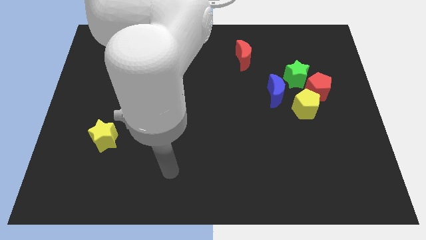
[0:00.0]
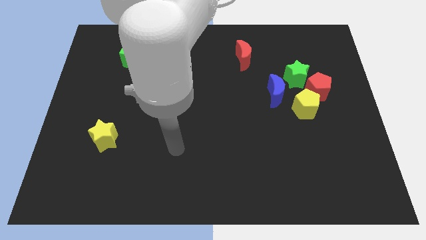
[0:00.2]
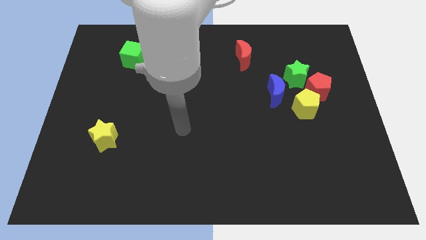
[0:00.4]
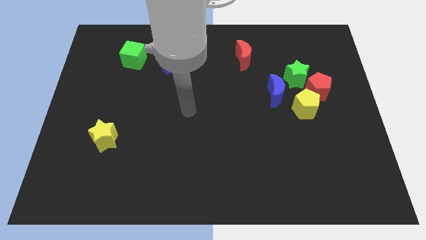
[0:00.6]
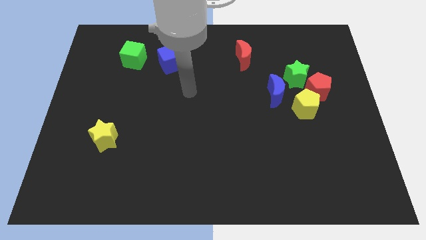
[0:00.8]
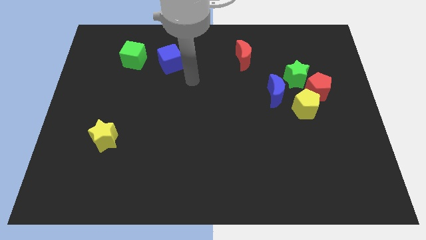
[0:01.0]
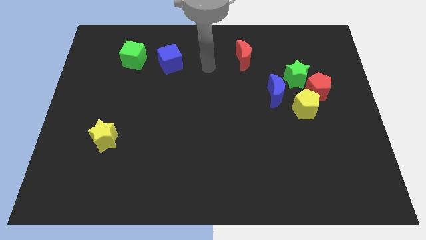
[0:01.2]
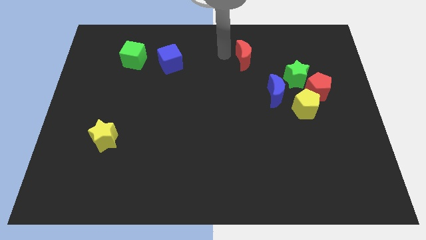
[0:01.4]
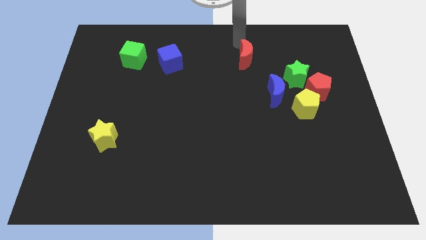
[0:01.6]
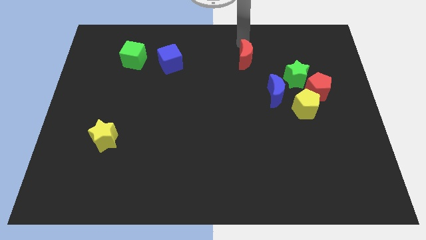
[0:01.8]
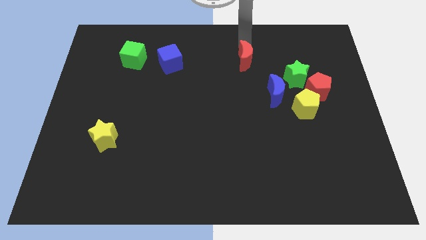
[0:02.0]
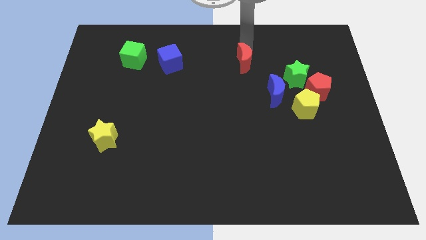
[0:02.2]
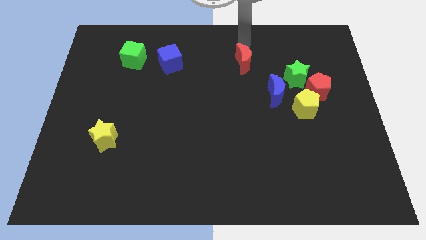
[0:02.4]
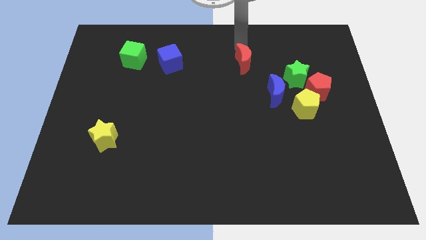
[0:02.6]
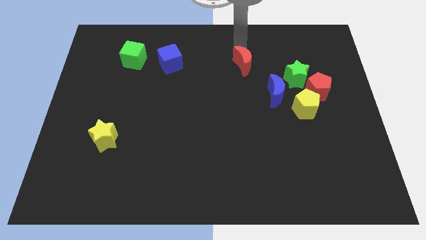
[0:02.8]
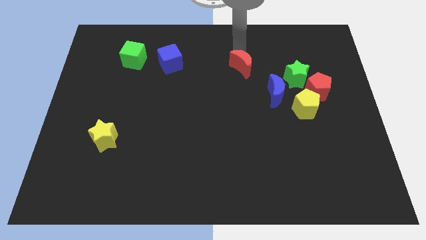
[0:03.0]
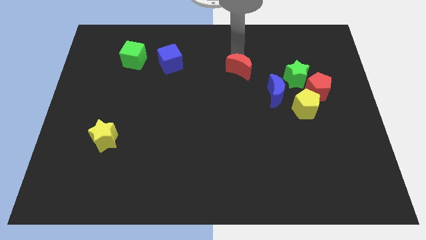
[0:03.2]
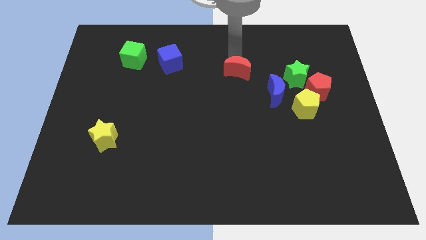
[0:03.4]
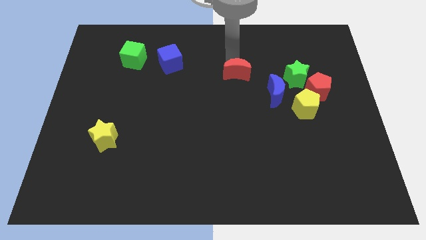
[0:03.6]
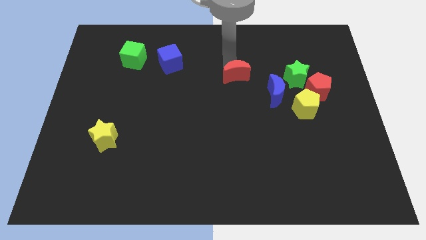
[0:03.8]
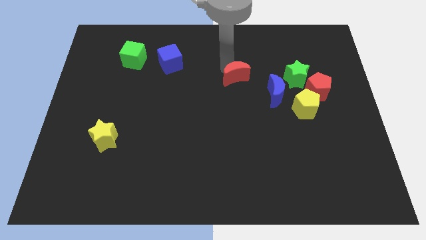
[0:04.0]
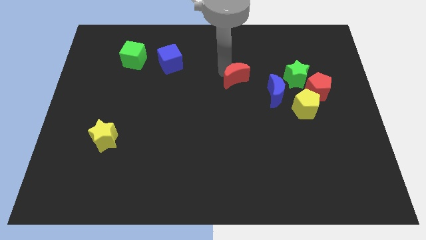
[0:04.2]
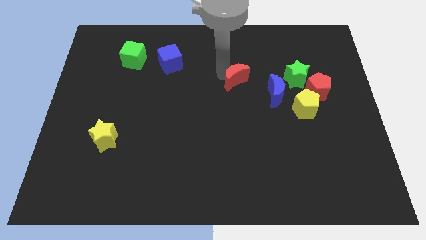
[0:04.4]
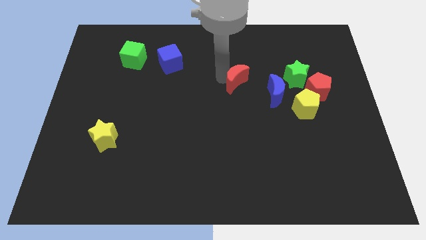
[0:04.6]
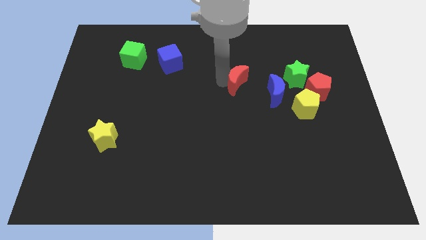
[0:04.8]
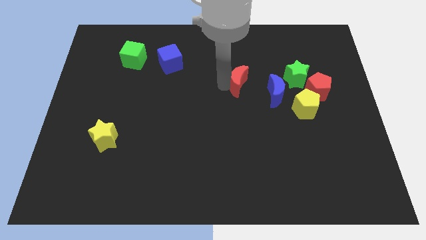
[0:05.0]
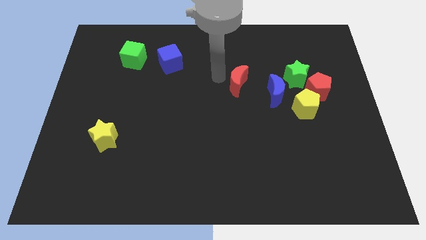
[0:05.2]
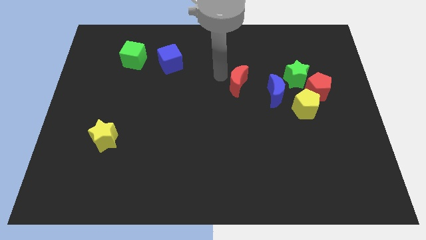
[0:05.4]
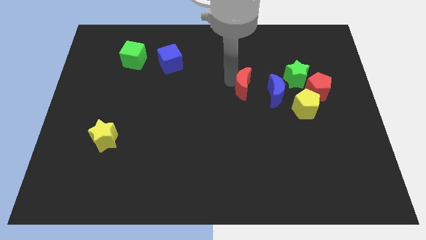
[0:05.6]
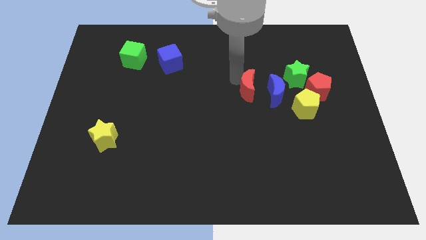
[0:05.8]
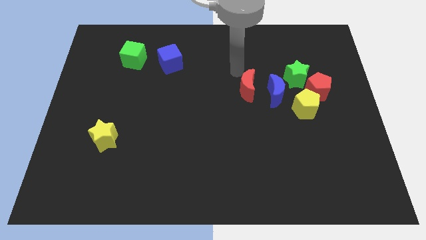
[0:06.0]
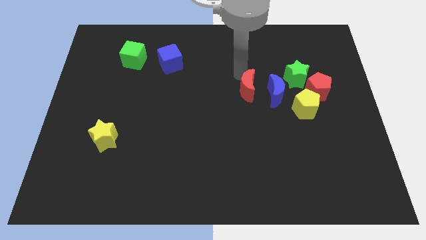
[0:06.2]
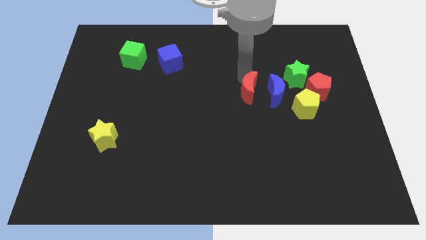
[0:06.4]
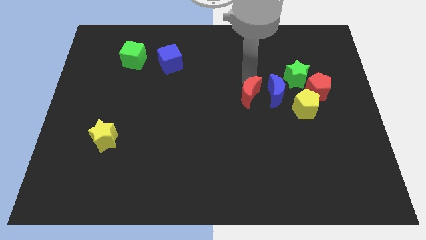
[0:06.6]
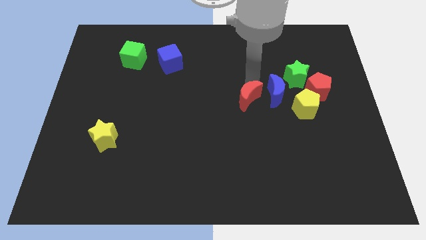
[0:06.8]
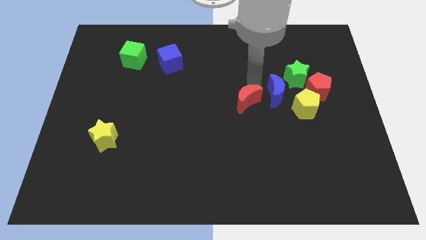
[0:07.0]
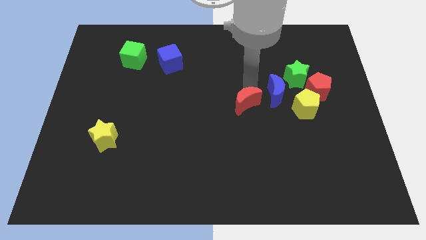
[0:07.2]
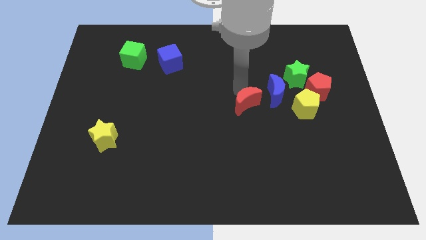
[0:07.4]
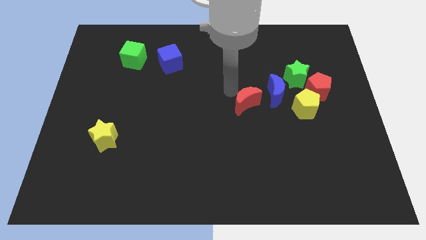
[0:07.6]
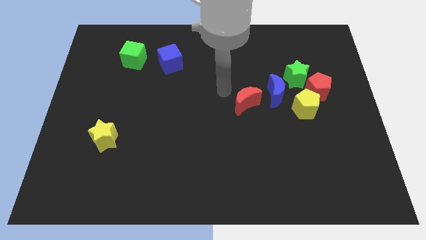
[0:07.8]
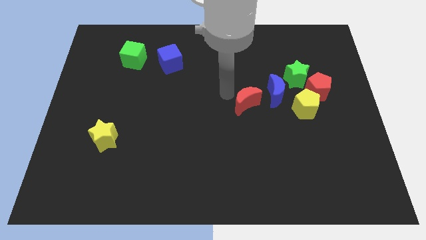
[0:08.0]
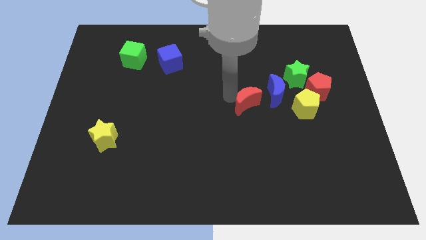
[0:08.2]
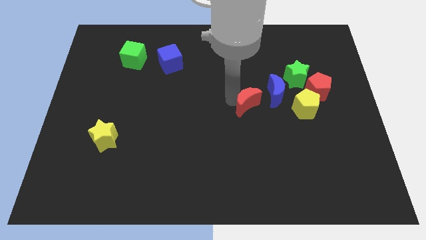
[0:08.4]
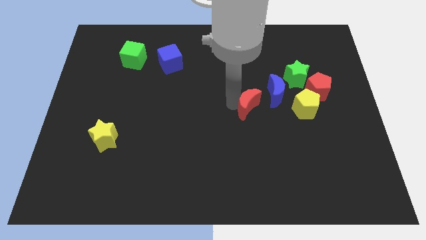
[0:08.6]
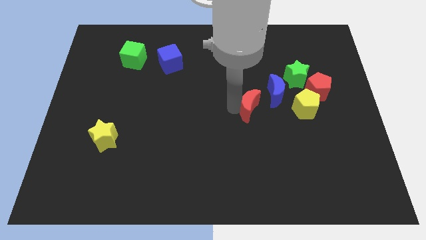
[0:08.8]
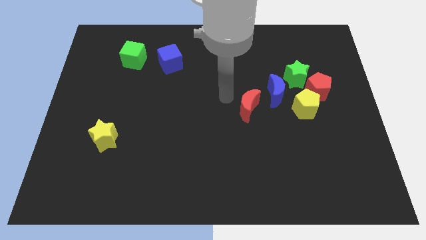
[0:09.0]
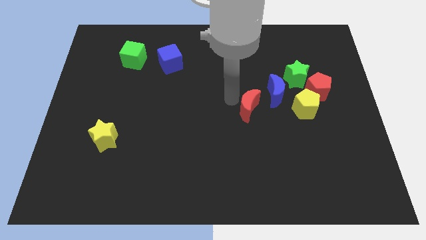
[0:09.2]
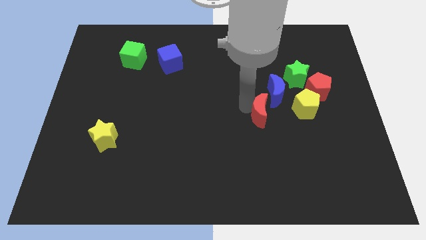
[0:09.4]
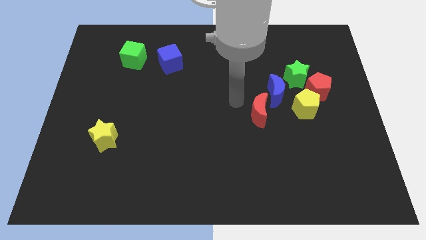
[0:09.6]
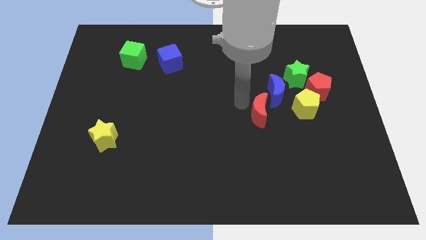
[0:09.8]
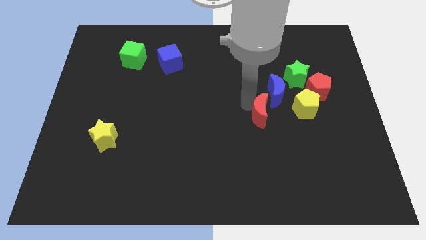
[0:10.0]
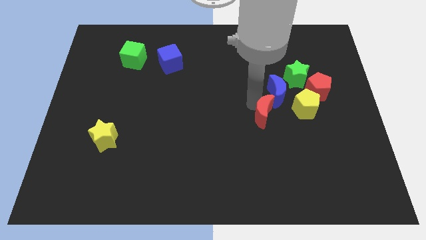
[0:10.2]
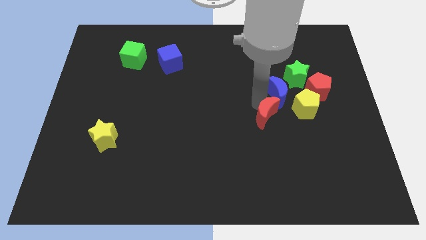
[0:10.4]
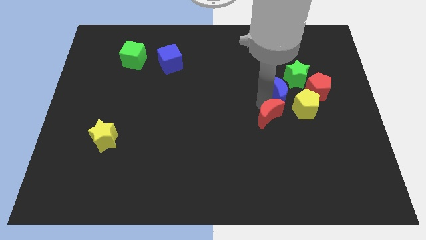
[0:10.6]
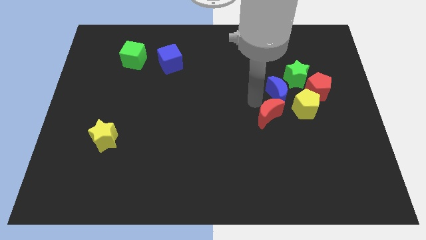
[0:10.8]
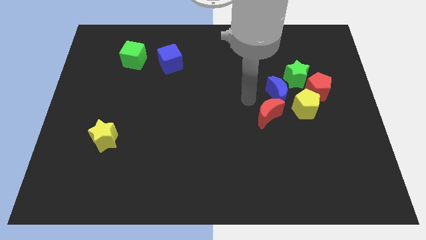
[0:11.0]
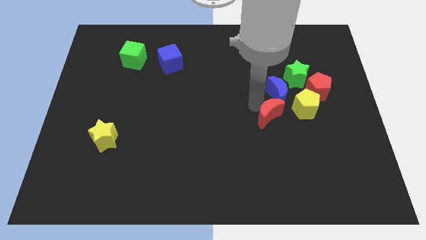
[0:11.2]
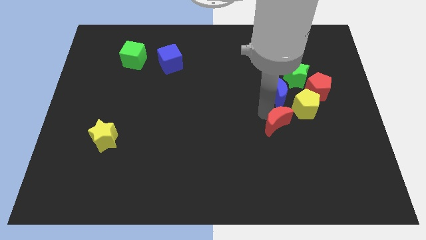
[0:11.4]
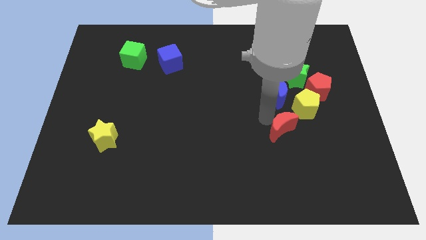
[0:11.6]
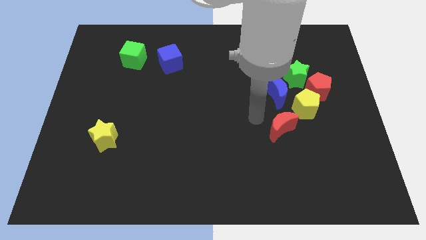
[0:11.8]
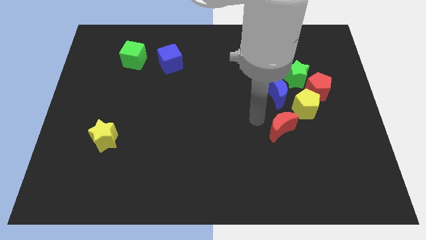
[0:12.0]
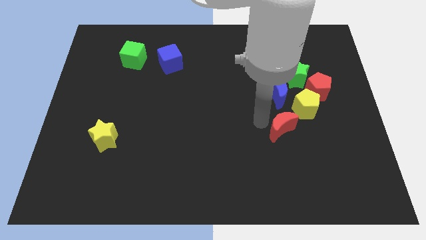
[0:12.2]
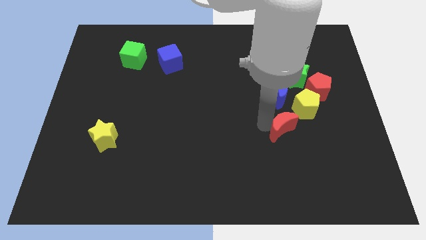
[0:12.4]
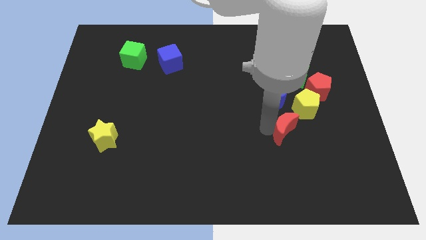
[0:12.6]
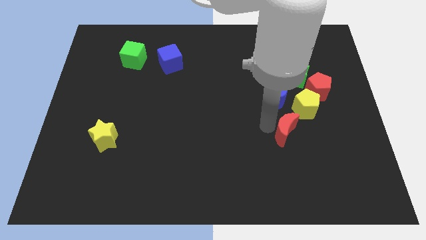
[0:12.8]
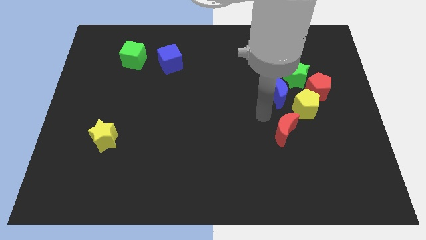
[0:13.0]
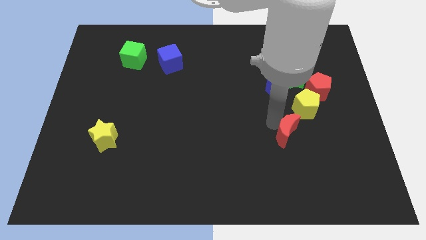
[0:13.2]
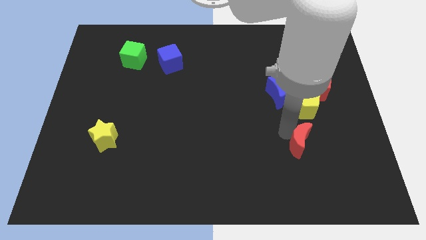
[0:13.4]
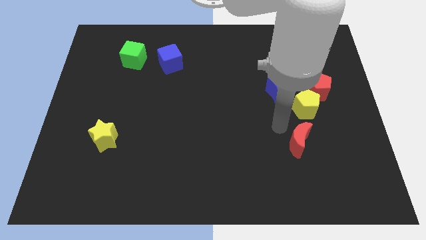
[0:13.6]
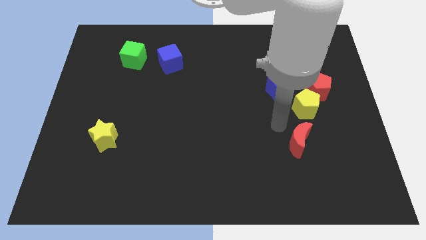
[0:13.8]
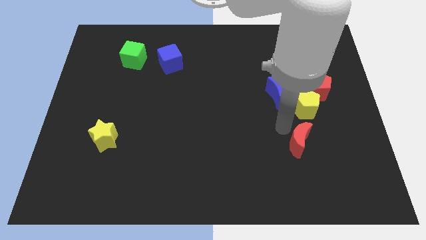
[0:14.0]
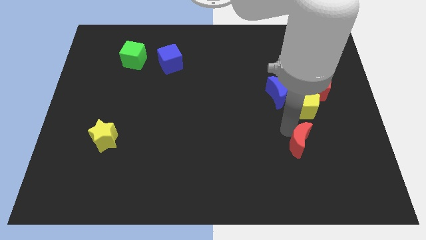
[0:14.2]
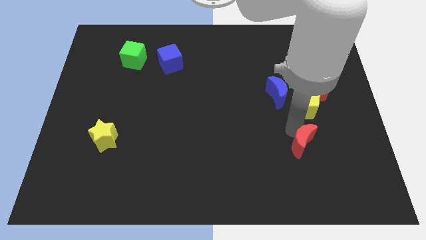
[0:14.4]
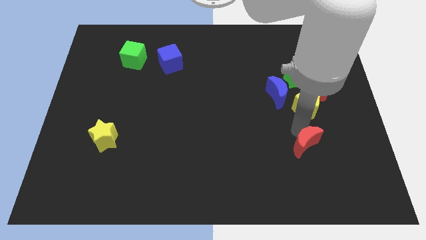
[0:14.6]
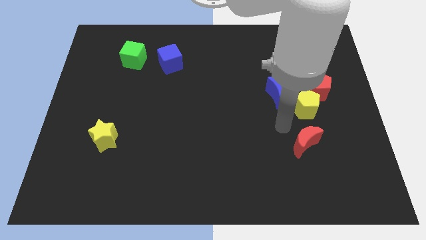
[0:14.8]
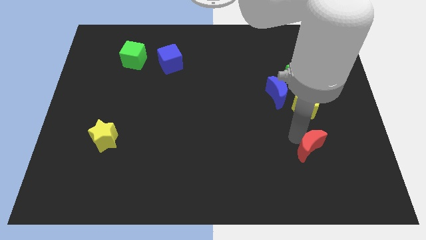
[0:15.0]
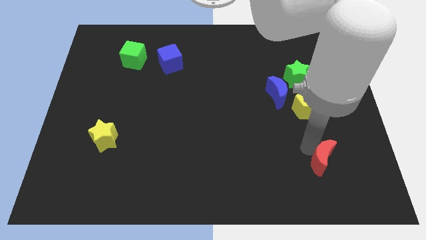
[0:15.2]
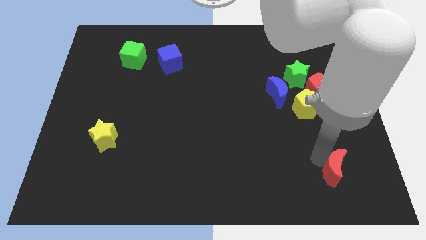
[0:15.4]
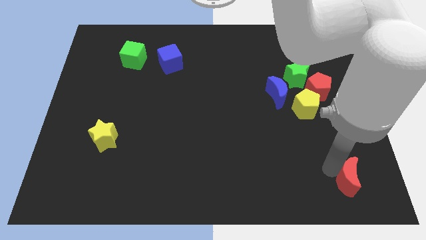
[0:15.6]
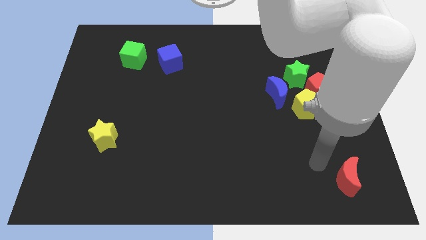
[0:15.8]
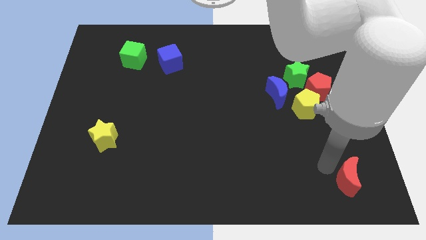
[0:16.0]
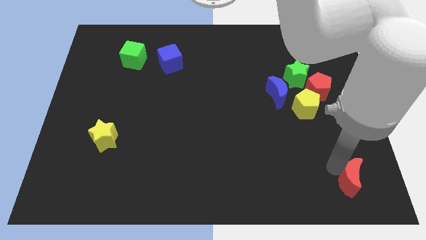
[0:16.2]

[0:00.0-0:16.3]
put the red moon to the bottom right corner
